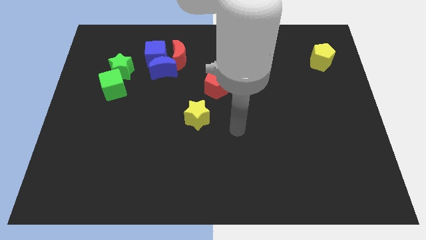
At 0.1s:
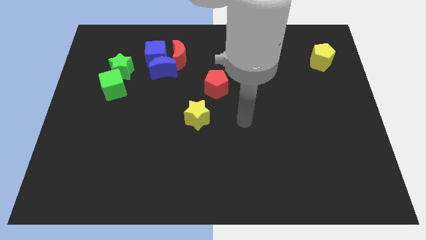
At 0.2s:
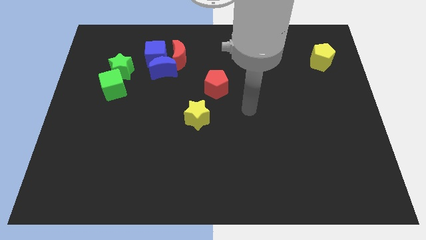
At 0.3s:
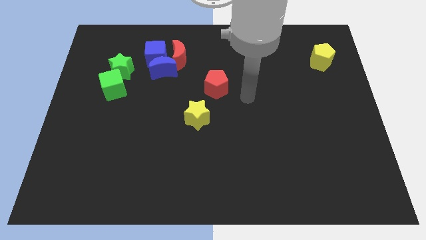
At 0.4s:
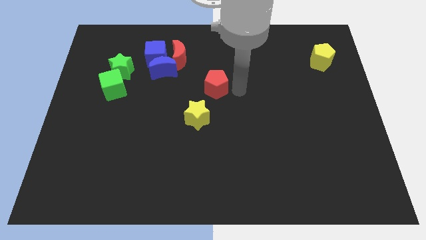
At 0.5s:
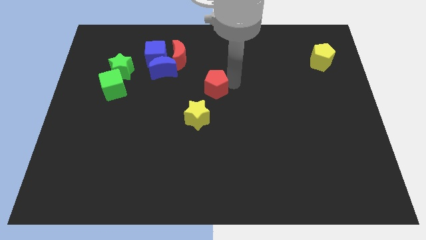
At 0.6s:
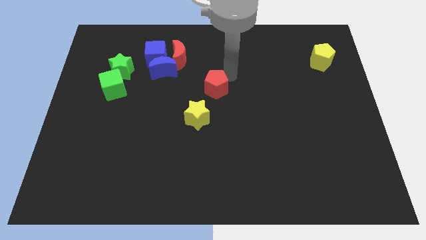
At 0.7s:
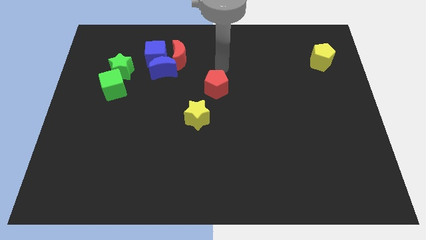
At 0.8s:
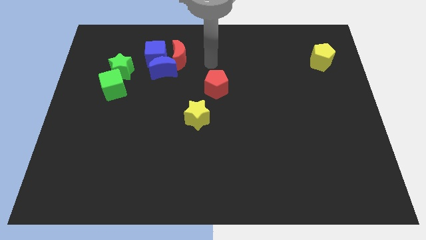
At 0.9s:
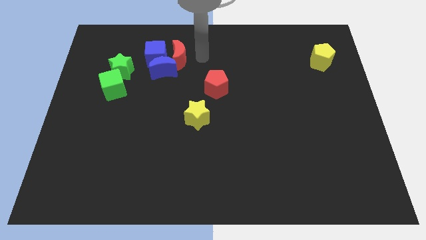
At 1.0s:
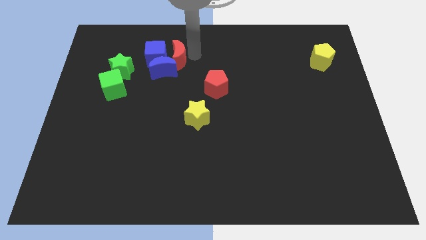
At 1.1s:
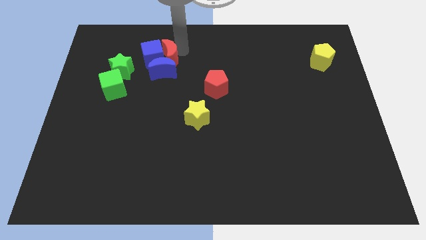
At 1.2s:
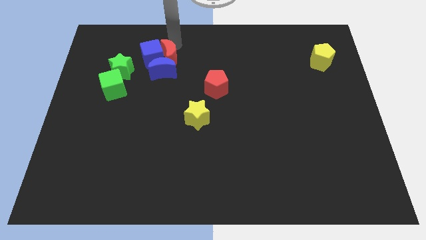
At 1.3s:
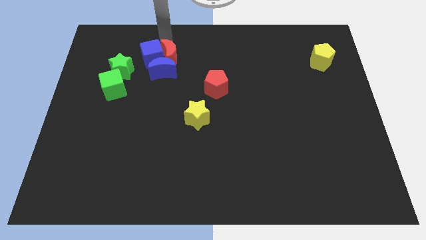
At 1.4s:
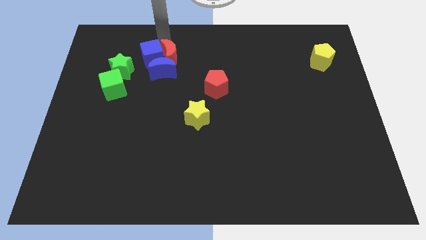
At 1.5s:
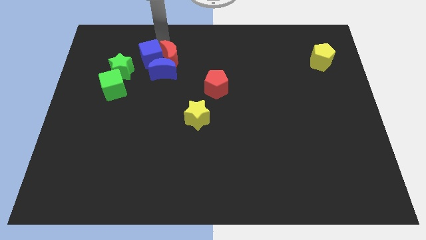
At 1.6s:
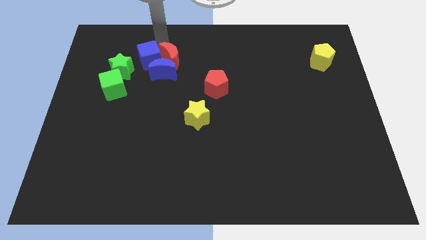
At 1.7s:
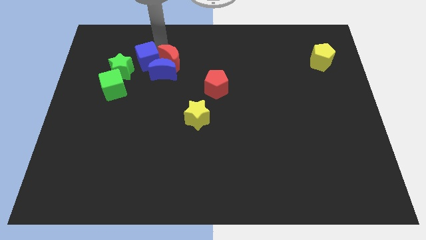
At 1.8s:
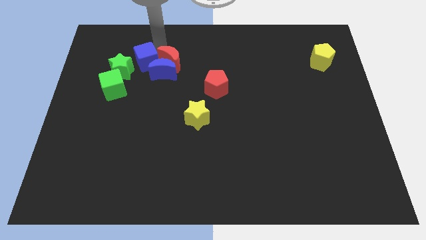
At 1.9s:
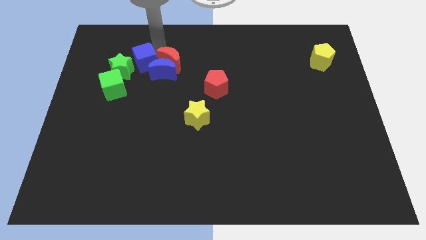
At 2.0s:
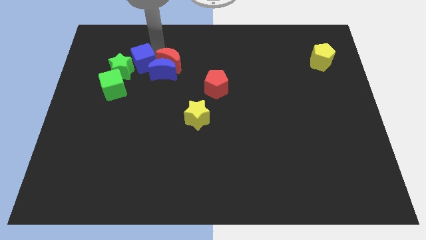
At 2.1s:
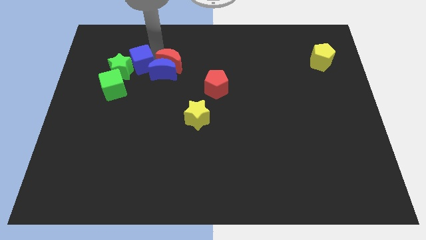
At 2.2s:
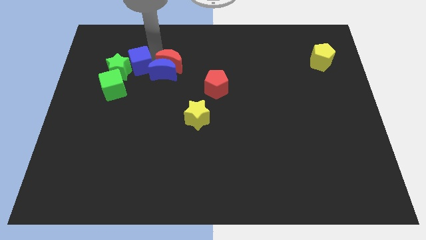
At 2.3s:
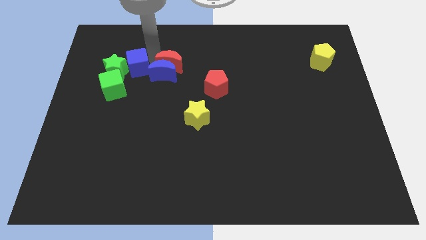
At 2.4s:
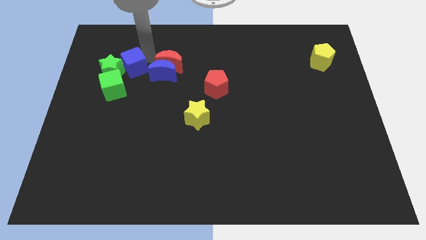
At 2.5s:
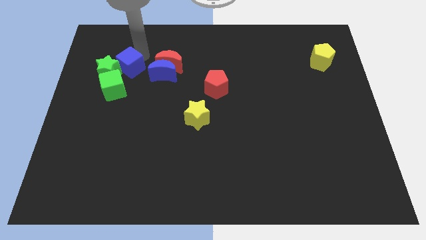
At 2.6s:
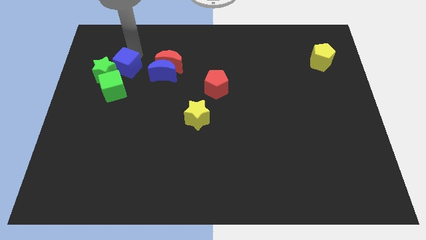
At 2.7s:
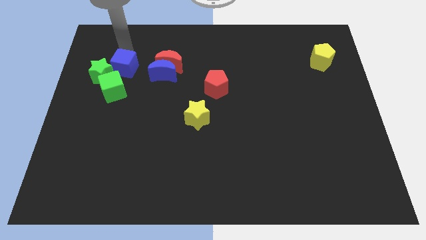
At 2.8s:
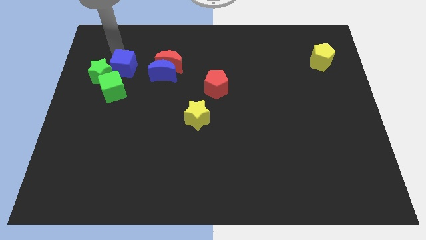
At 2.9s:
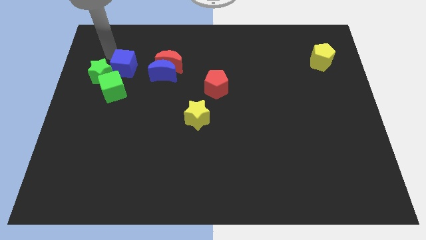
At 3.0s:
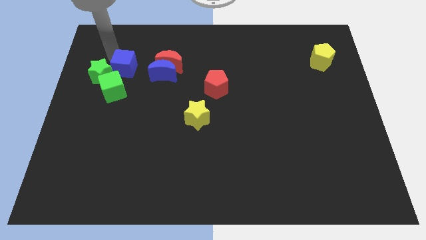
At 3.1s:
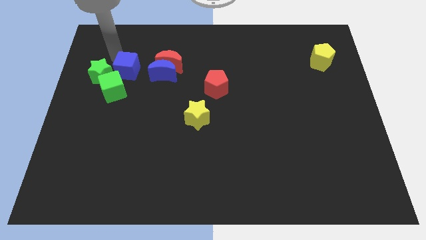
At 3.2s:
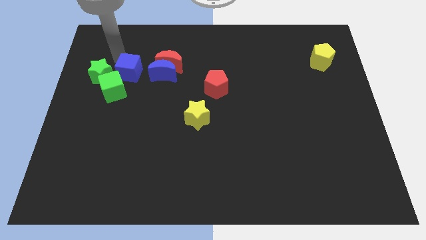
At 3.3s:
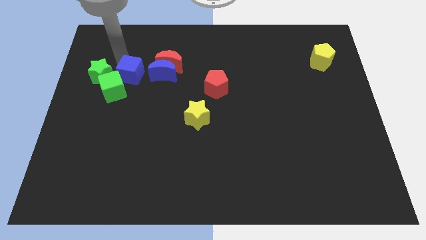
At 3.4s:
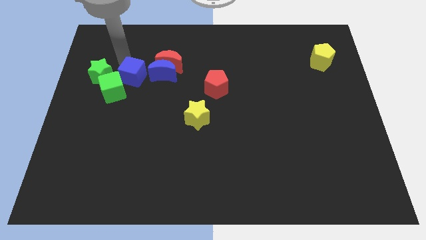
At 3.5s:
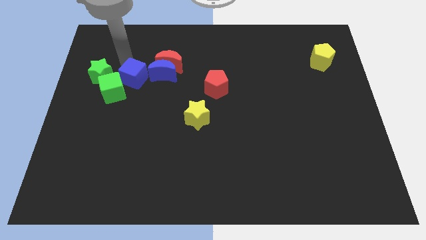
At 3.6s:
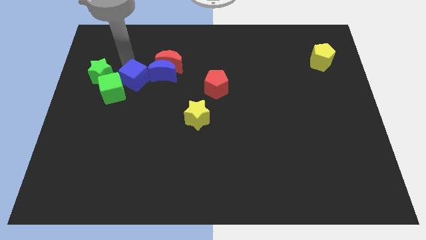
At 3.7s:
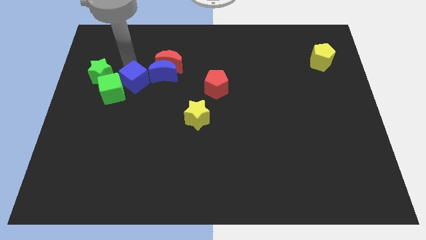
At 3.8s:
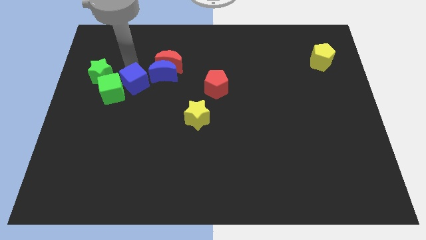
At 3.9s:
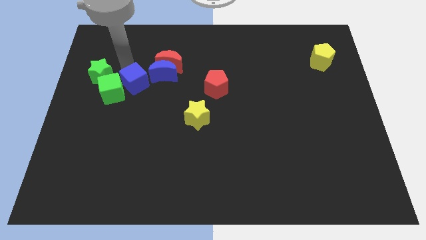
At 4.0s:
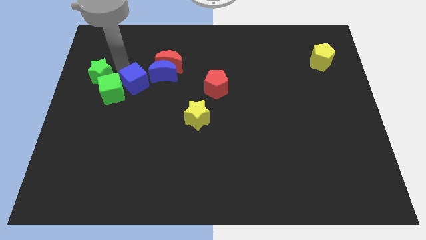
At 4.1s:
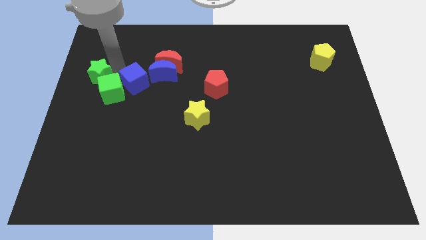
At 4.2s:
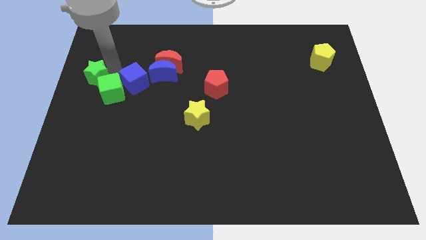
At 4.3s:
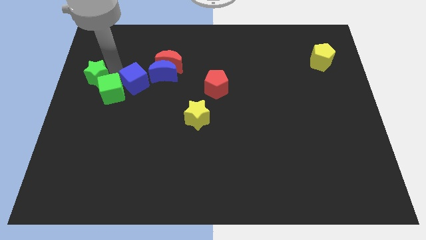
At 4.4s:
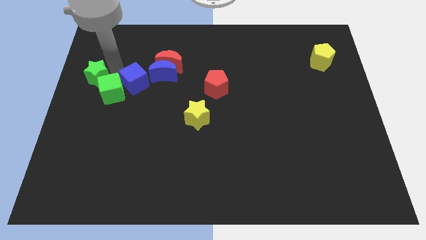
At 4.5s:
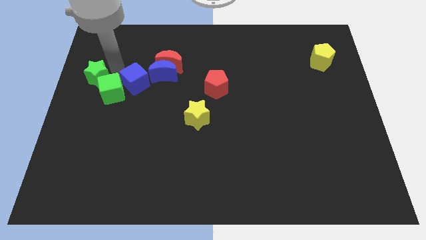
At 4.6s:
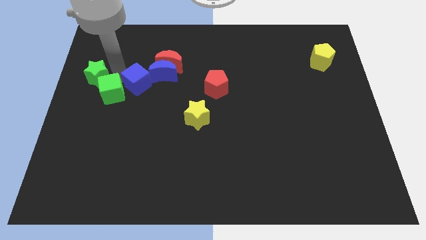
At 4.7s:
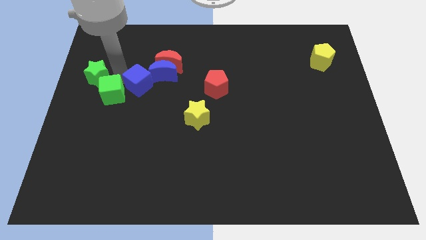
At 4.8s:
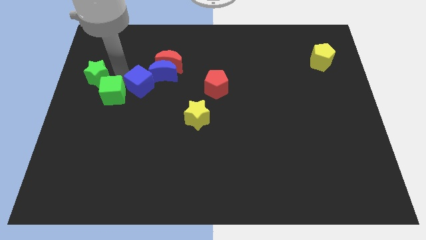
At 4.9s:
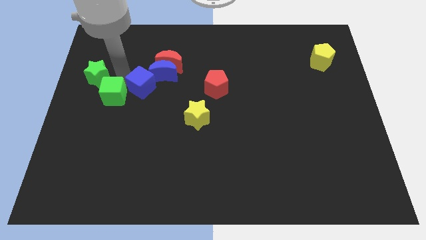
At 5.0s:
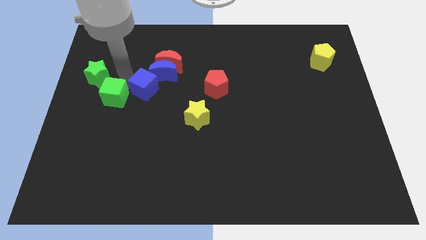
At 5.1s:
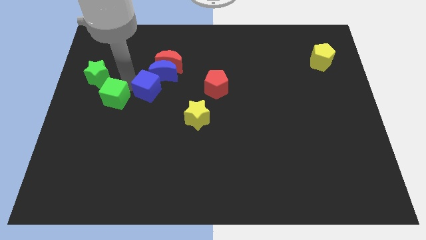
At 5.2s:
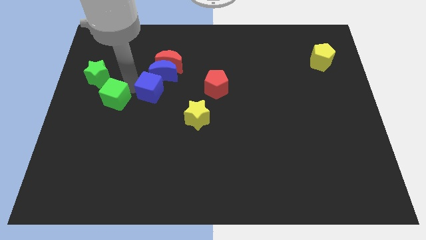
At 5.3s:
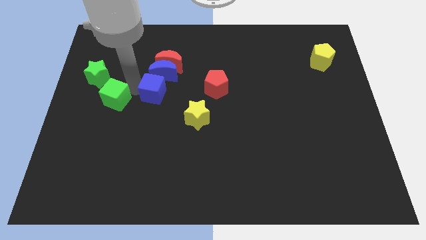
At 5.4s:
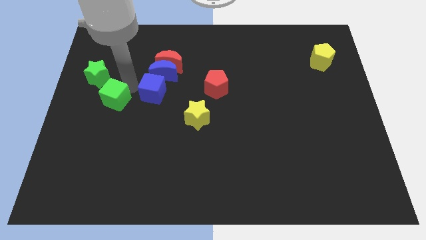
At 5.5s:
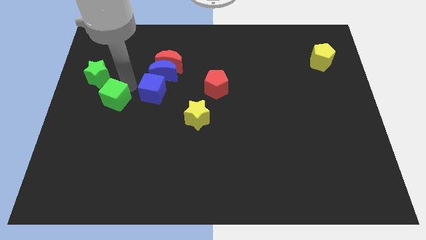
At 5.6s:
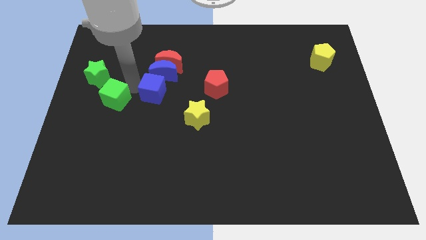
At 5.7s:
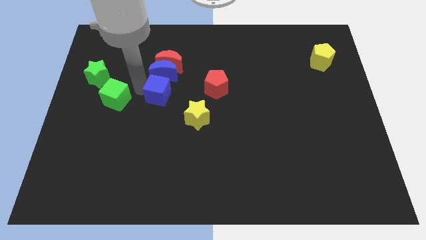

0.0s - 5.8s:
move the blue cube downwards and right diagonally somewhat

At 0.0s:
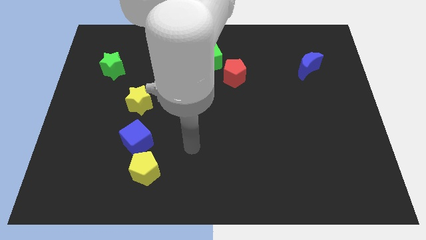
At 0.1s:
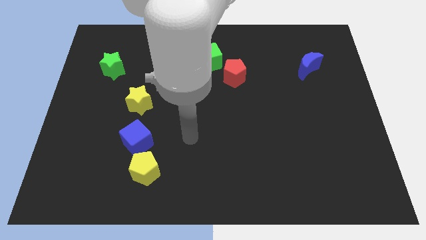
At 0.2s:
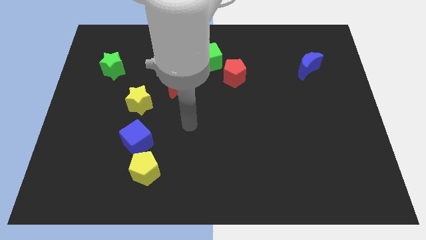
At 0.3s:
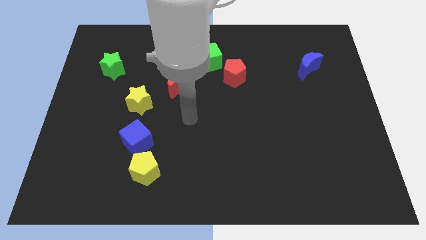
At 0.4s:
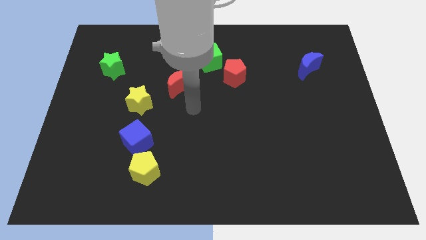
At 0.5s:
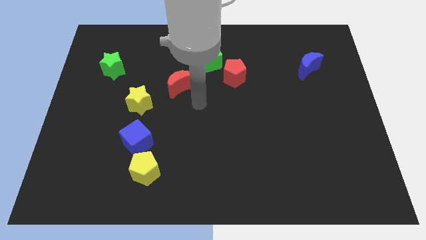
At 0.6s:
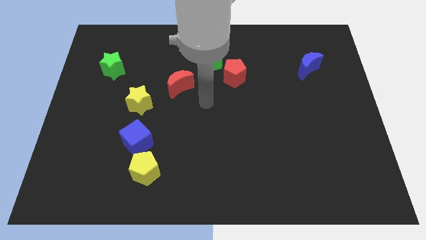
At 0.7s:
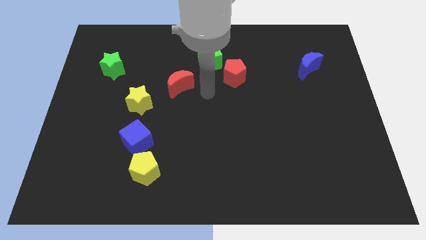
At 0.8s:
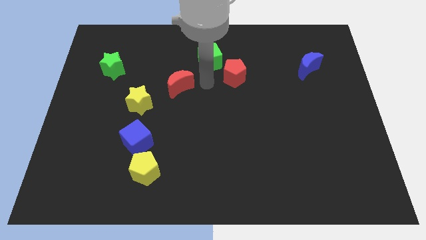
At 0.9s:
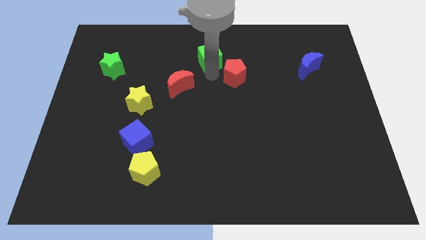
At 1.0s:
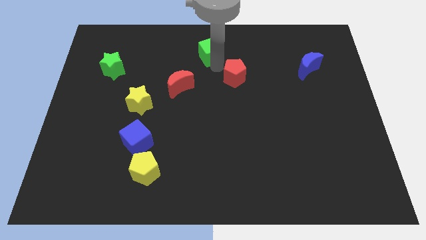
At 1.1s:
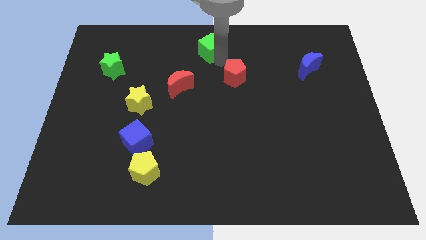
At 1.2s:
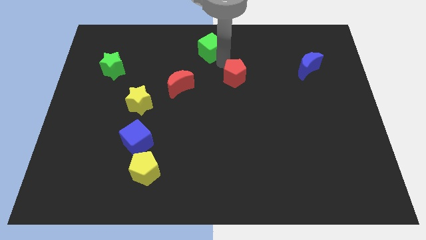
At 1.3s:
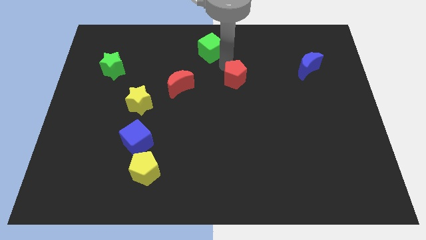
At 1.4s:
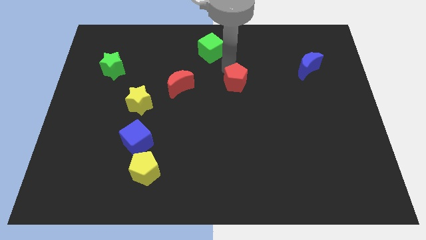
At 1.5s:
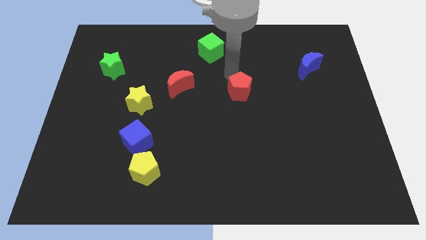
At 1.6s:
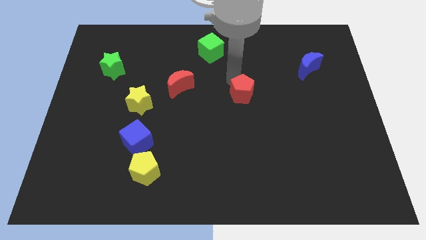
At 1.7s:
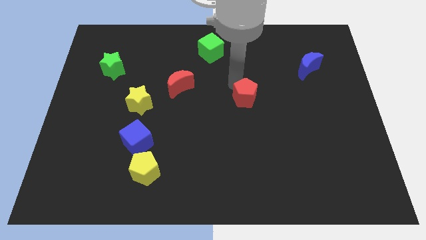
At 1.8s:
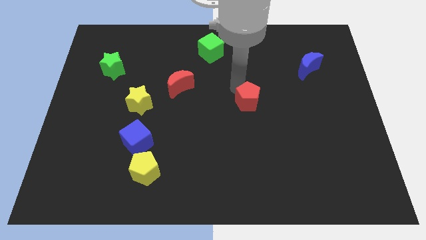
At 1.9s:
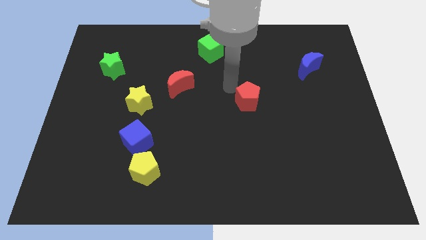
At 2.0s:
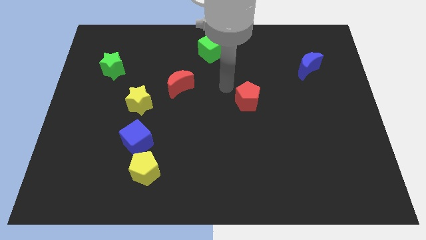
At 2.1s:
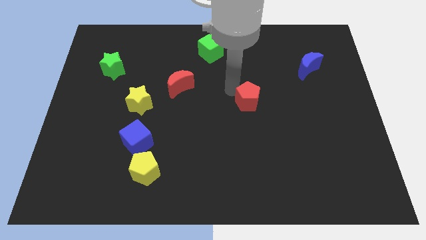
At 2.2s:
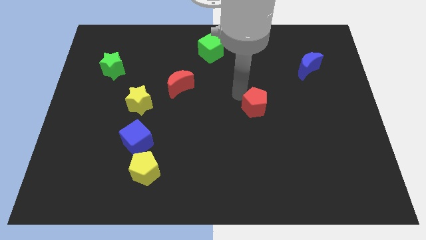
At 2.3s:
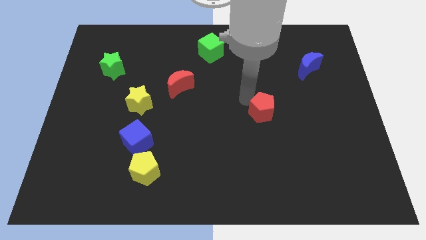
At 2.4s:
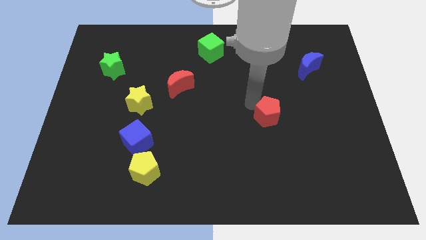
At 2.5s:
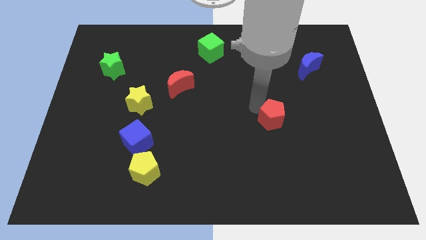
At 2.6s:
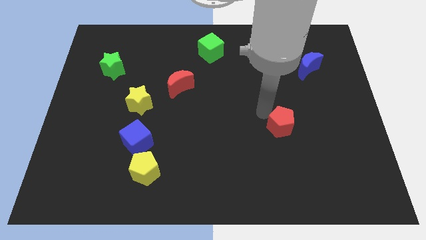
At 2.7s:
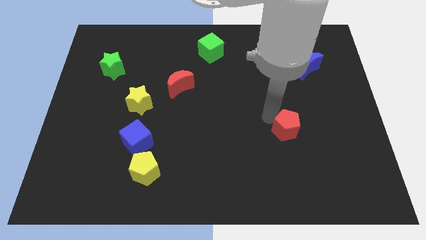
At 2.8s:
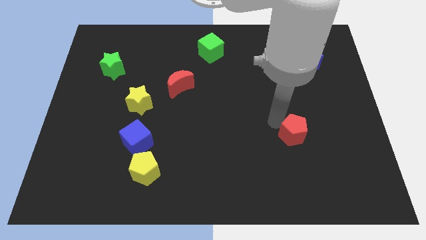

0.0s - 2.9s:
move the red pentagon downwards and to the right
